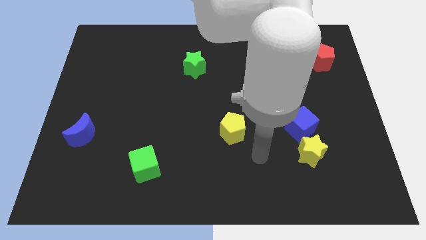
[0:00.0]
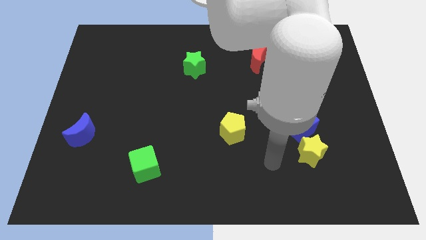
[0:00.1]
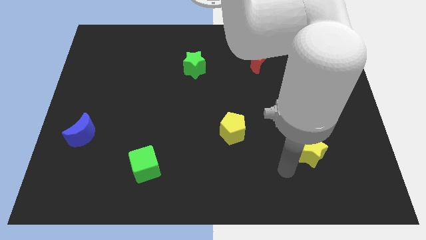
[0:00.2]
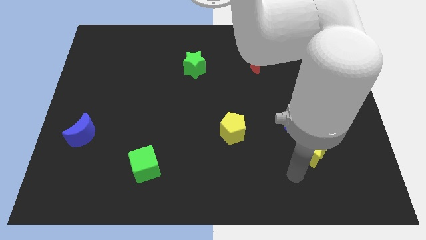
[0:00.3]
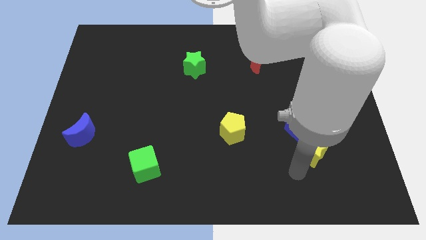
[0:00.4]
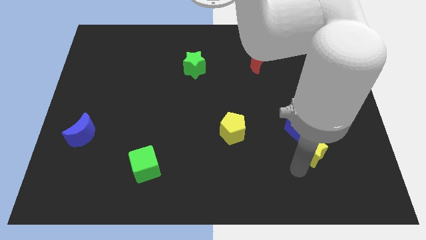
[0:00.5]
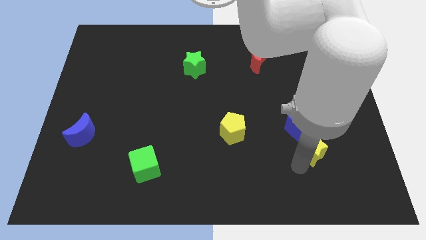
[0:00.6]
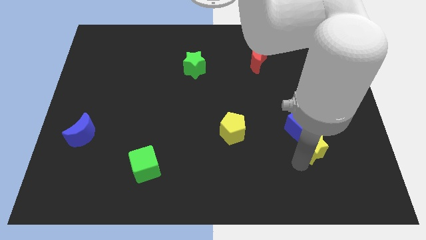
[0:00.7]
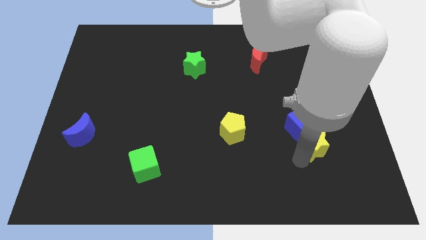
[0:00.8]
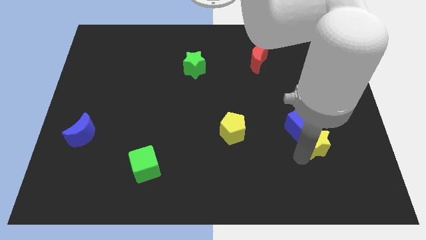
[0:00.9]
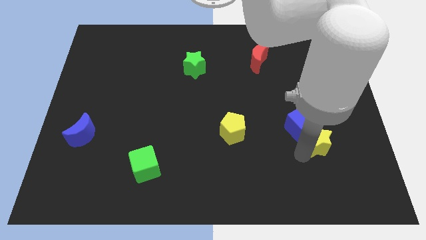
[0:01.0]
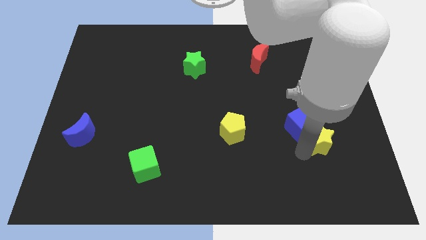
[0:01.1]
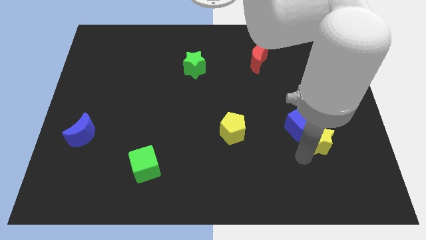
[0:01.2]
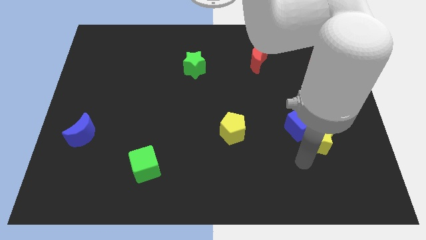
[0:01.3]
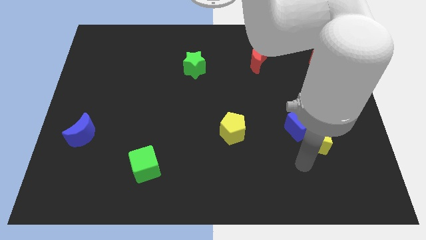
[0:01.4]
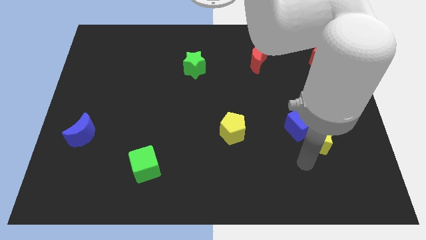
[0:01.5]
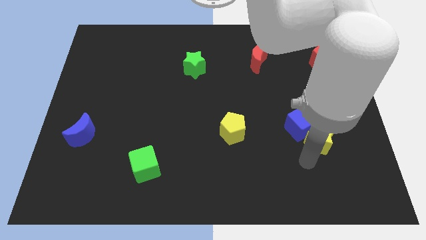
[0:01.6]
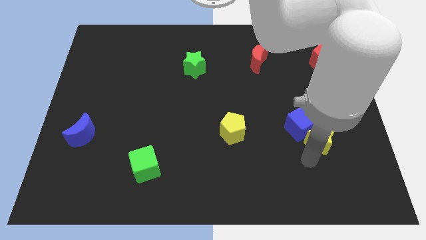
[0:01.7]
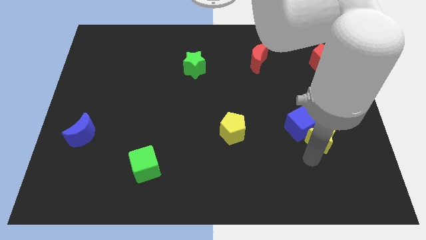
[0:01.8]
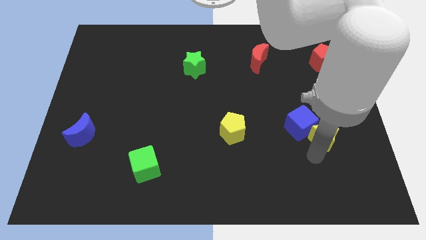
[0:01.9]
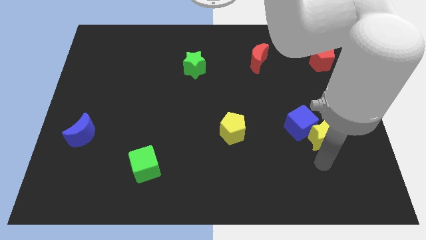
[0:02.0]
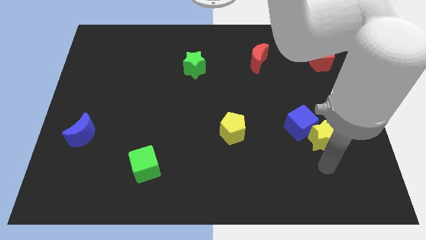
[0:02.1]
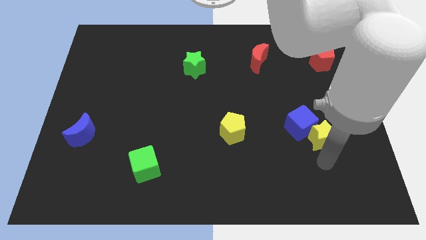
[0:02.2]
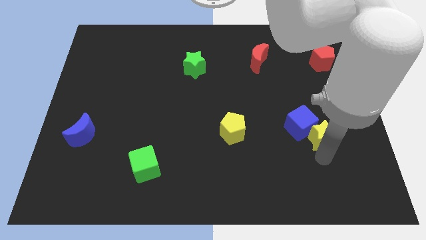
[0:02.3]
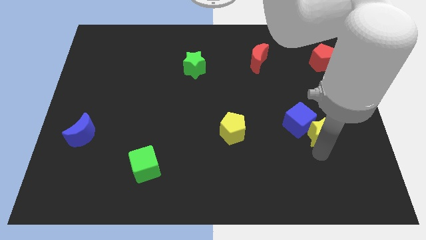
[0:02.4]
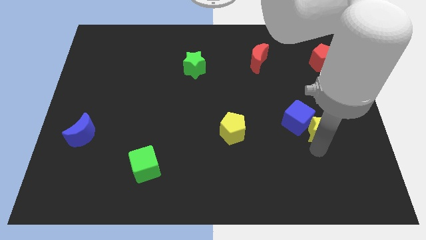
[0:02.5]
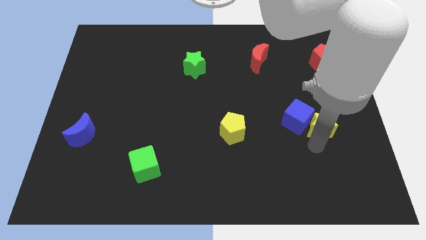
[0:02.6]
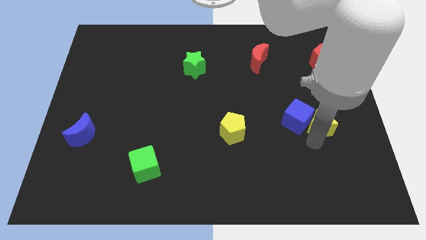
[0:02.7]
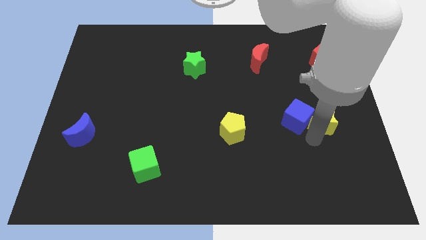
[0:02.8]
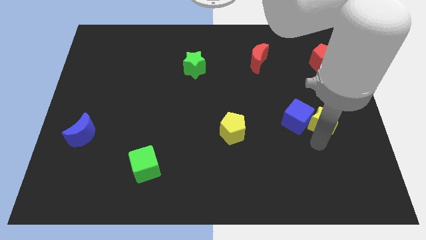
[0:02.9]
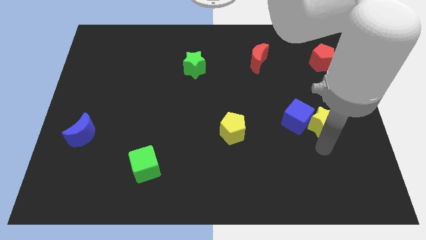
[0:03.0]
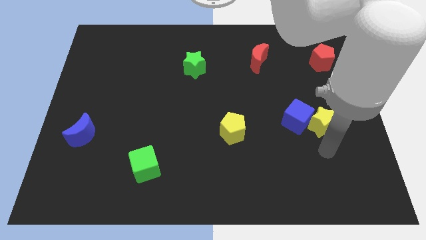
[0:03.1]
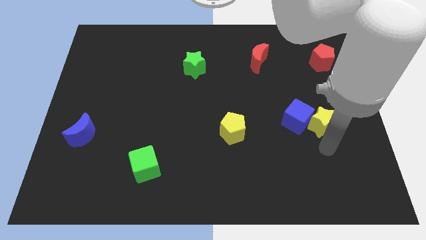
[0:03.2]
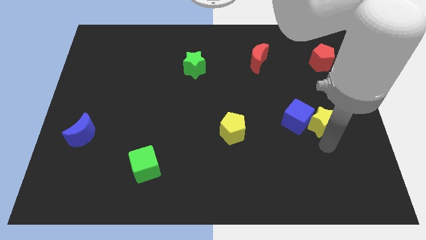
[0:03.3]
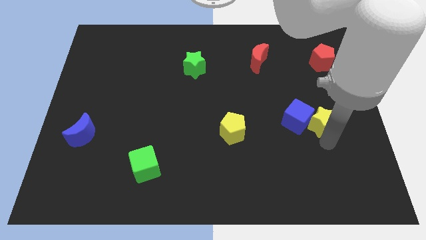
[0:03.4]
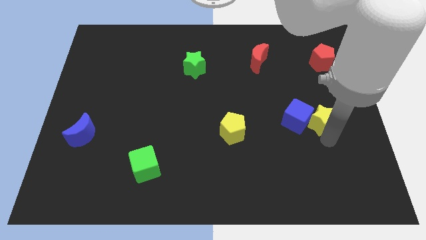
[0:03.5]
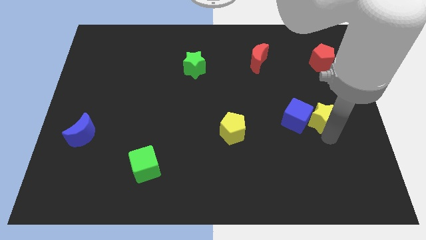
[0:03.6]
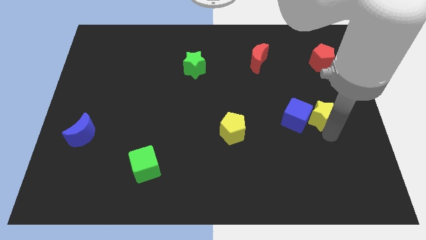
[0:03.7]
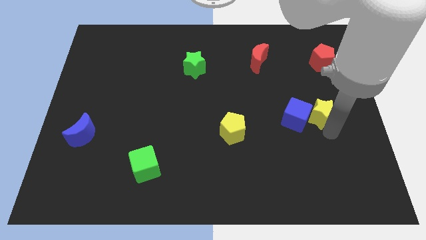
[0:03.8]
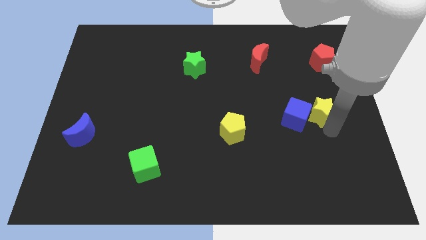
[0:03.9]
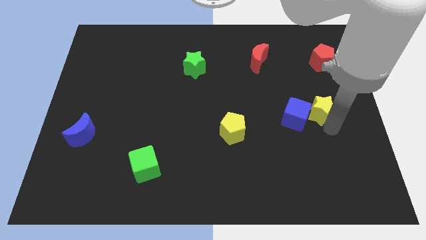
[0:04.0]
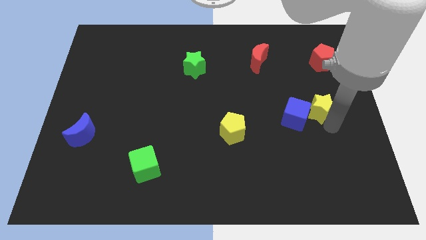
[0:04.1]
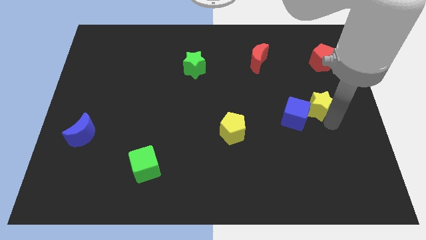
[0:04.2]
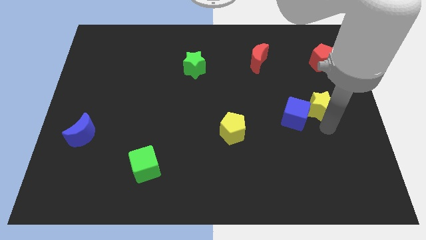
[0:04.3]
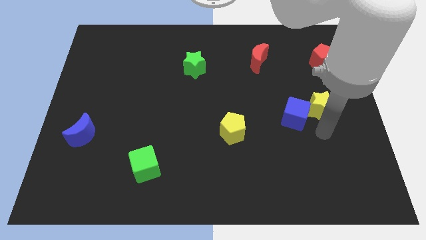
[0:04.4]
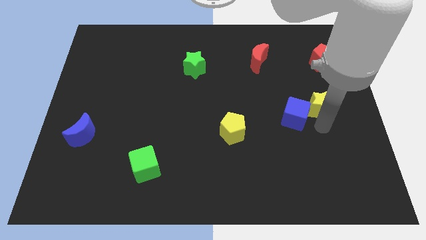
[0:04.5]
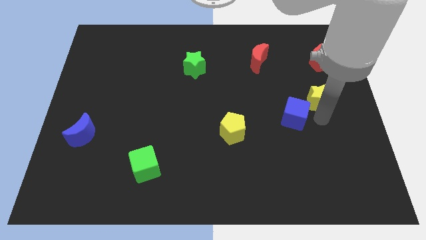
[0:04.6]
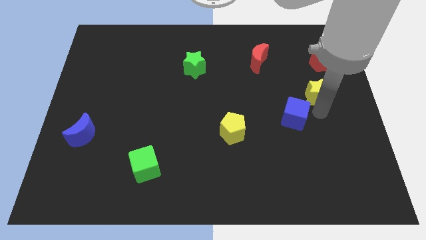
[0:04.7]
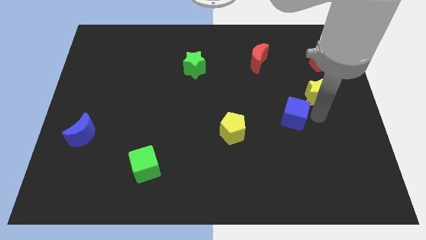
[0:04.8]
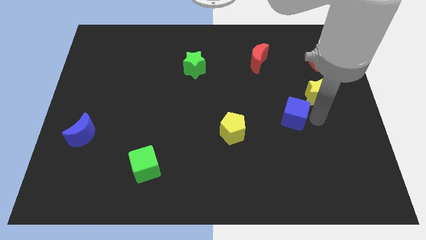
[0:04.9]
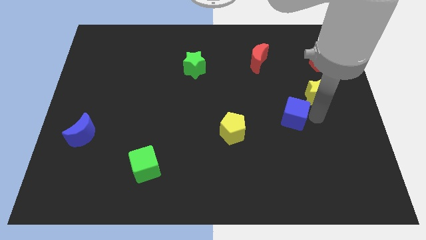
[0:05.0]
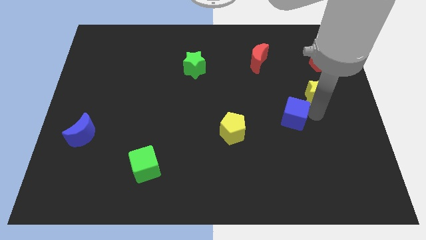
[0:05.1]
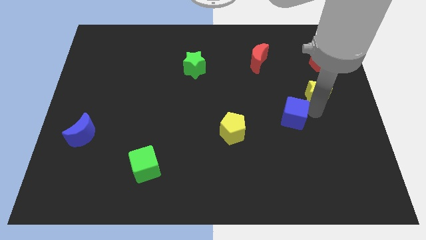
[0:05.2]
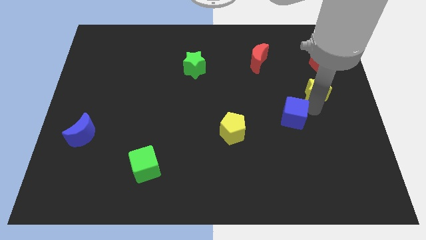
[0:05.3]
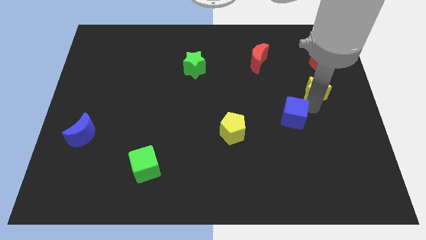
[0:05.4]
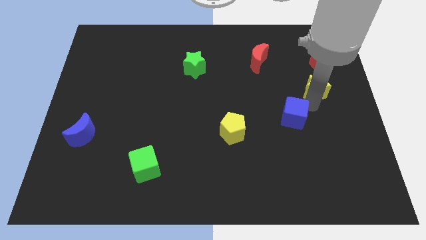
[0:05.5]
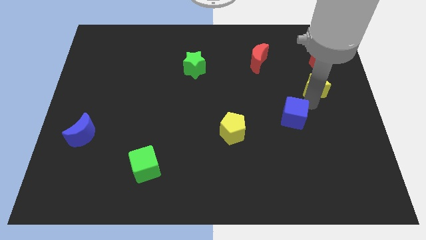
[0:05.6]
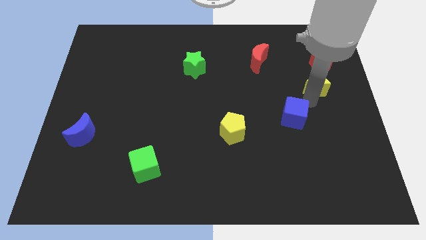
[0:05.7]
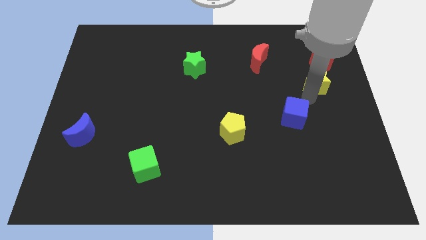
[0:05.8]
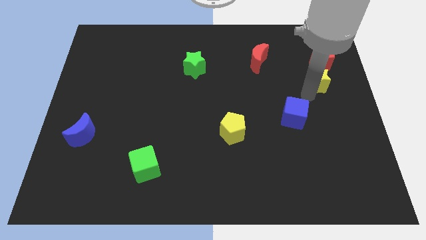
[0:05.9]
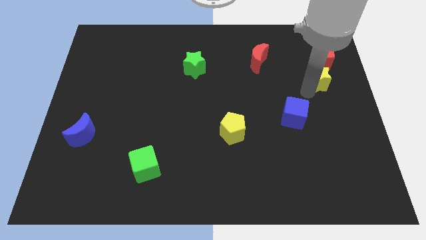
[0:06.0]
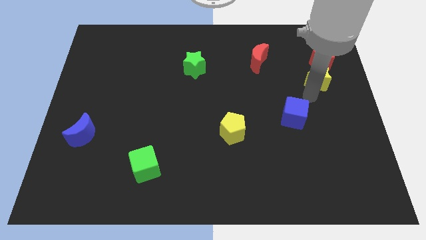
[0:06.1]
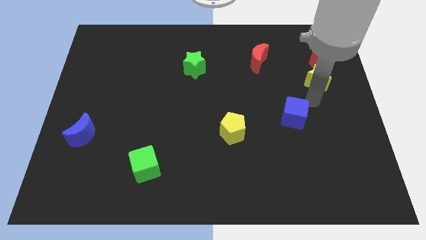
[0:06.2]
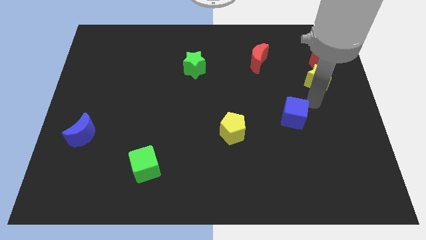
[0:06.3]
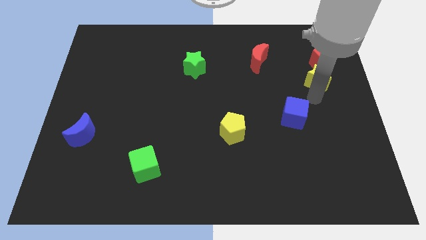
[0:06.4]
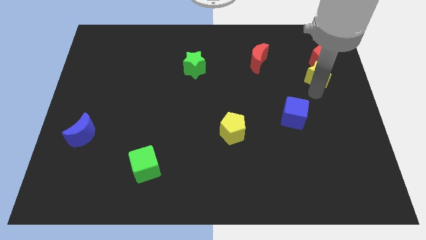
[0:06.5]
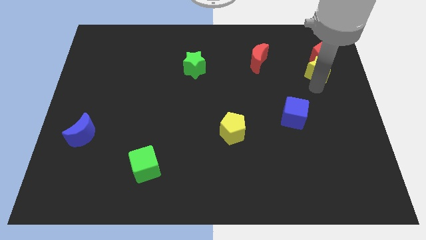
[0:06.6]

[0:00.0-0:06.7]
move the yellow star to the red pentagon

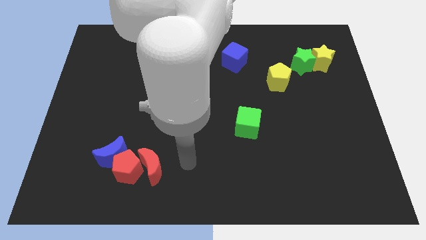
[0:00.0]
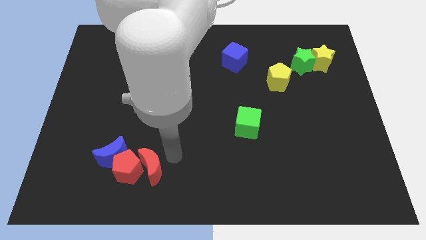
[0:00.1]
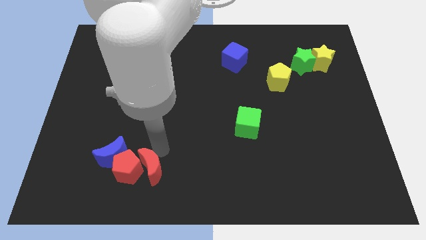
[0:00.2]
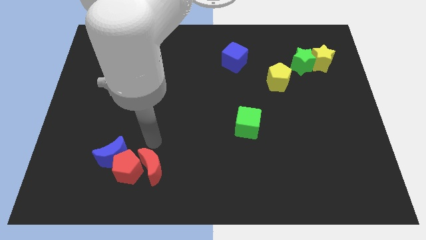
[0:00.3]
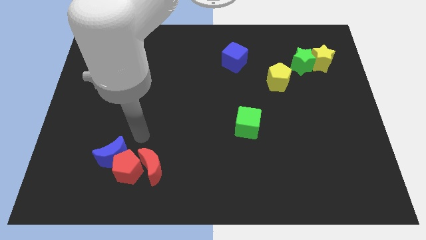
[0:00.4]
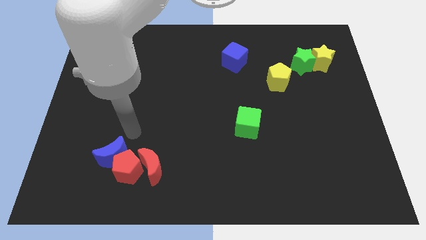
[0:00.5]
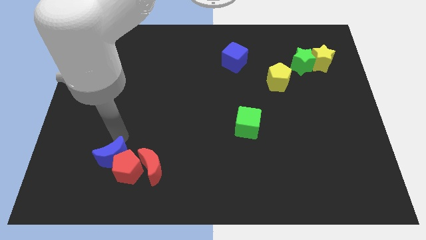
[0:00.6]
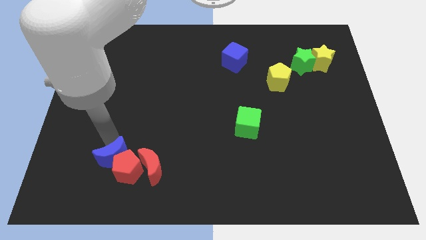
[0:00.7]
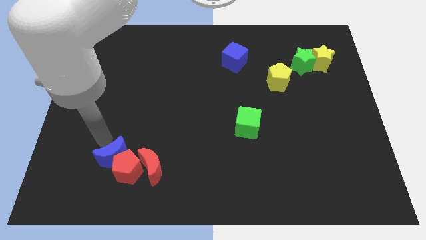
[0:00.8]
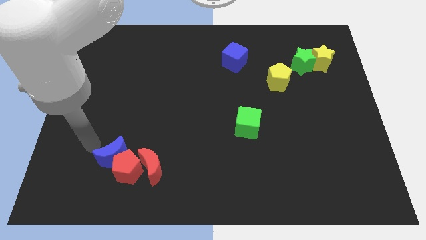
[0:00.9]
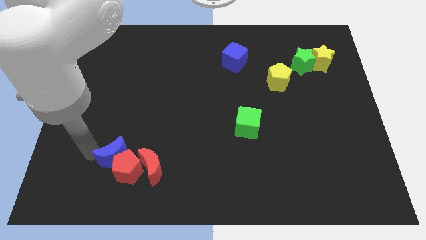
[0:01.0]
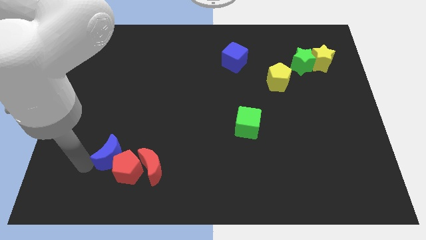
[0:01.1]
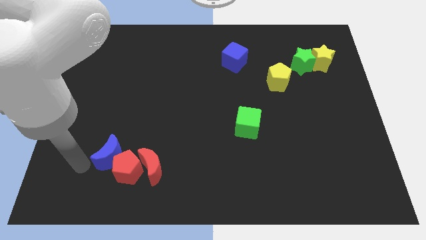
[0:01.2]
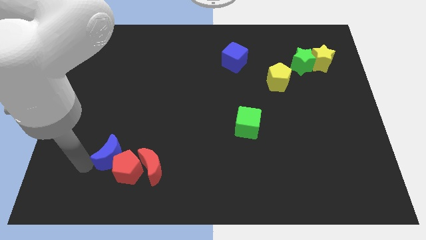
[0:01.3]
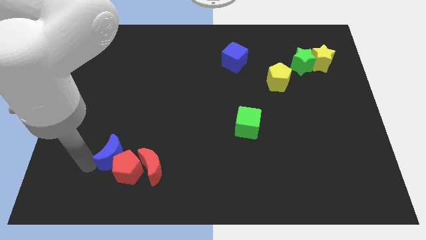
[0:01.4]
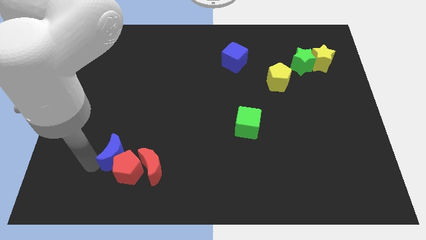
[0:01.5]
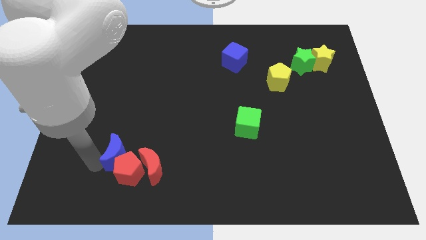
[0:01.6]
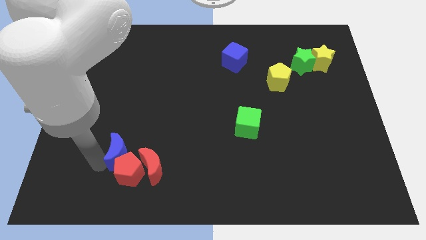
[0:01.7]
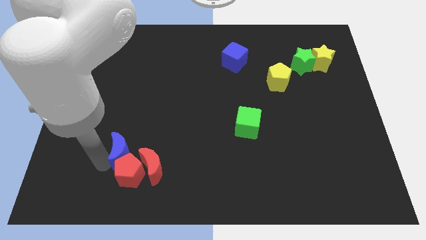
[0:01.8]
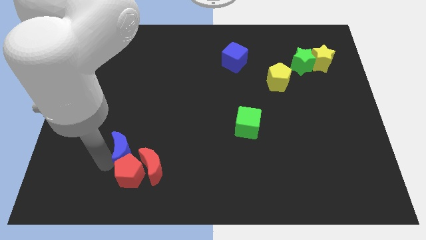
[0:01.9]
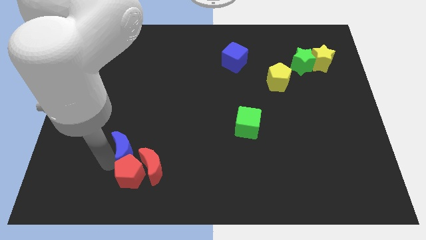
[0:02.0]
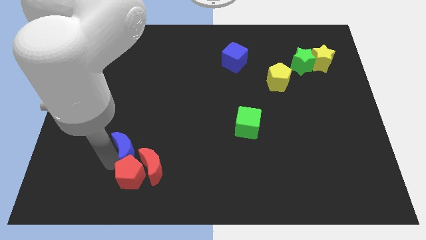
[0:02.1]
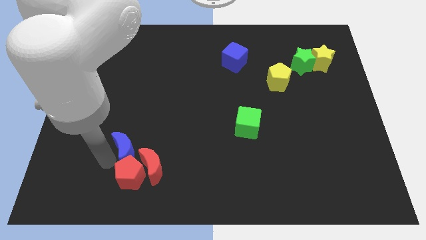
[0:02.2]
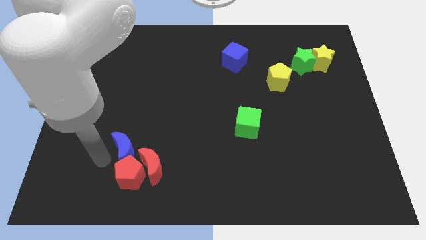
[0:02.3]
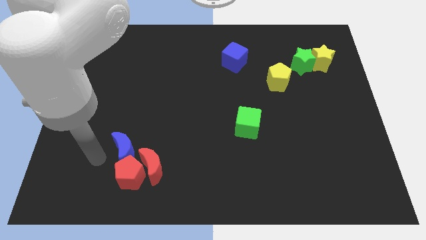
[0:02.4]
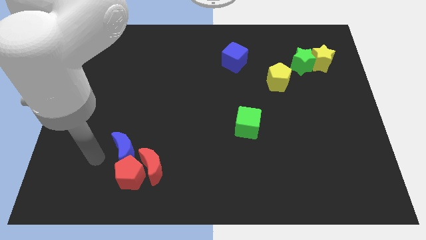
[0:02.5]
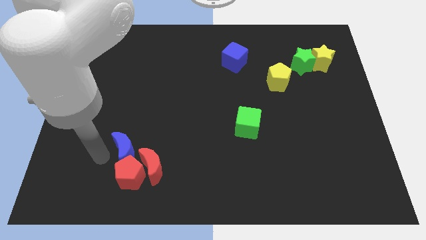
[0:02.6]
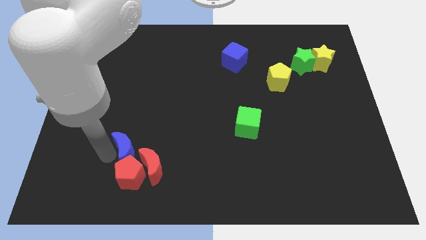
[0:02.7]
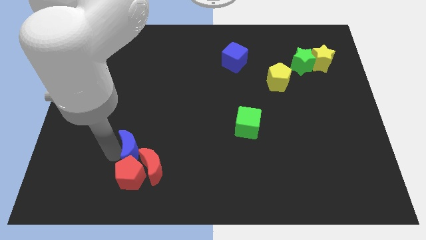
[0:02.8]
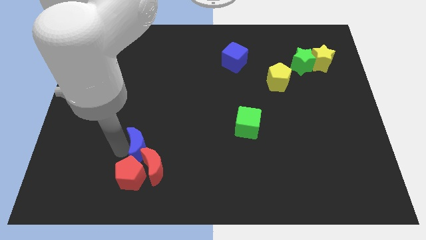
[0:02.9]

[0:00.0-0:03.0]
move the blue moon to the red moon
